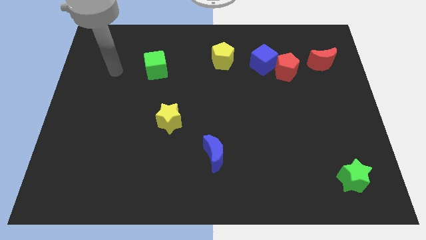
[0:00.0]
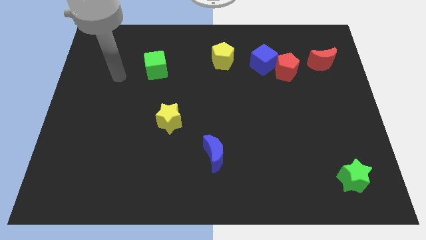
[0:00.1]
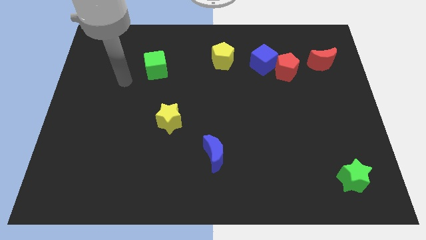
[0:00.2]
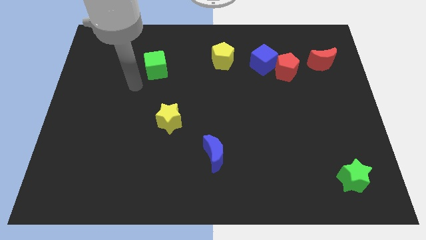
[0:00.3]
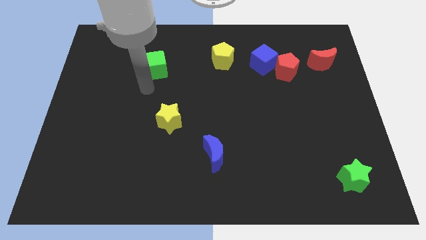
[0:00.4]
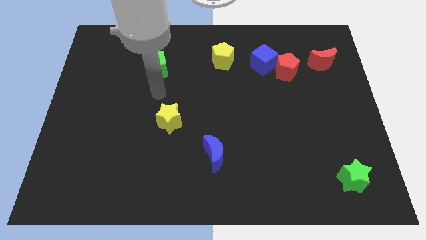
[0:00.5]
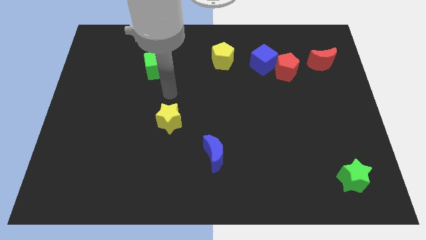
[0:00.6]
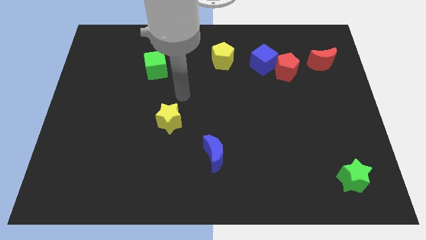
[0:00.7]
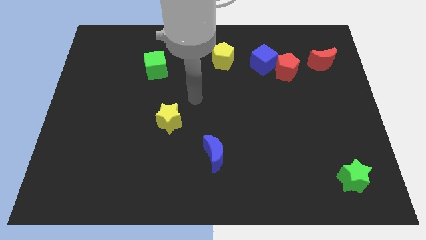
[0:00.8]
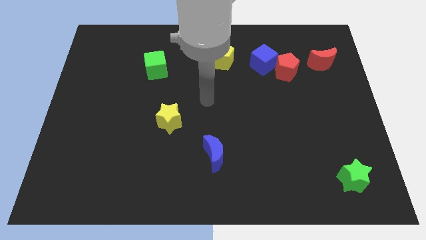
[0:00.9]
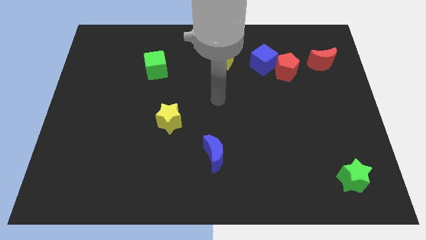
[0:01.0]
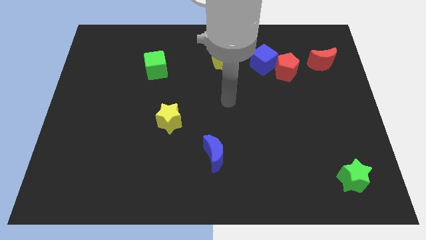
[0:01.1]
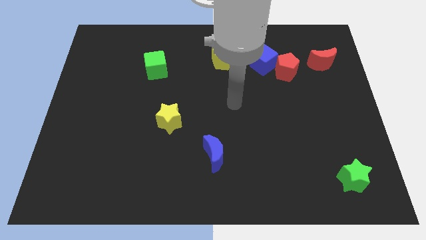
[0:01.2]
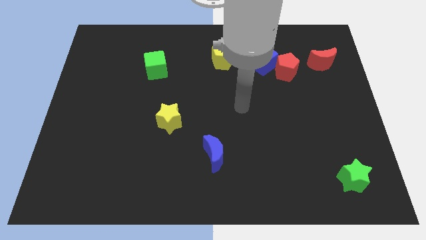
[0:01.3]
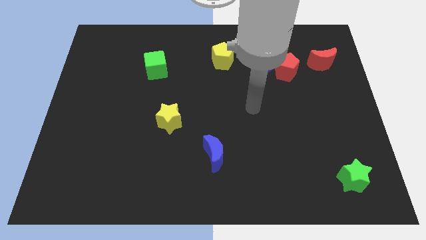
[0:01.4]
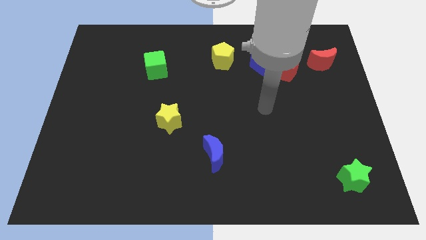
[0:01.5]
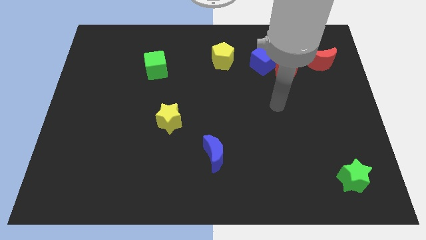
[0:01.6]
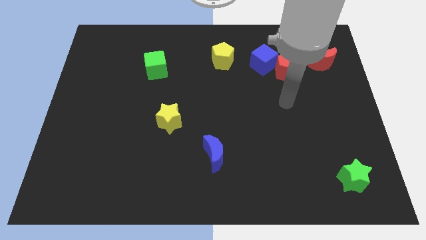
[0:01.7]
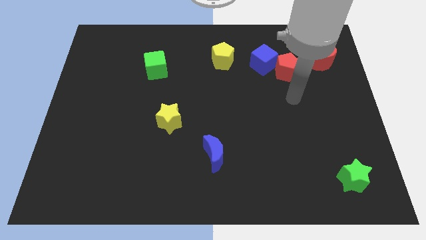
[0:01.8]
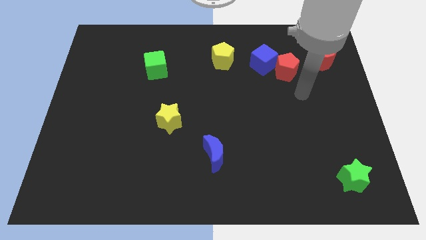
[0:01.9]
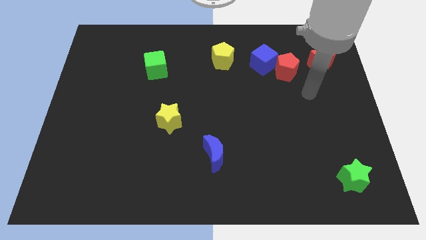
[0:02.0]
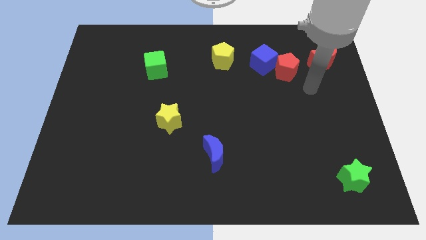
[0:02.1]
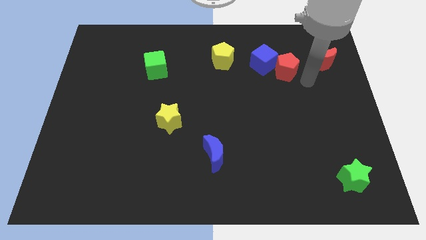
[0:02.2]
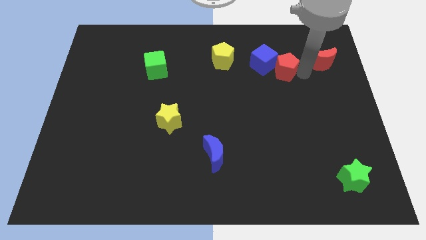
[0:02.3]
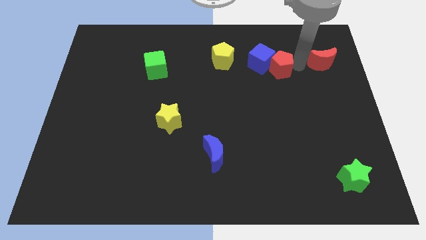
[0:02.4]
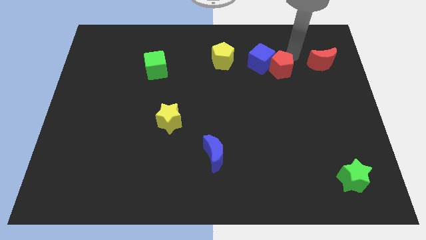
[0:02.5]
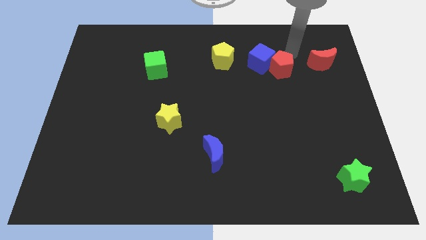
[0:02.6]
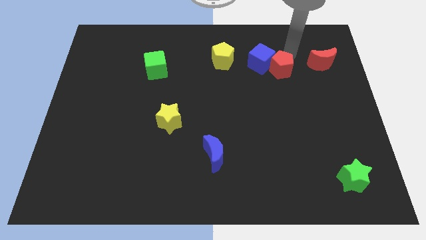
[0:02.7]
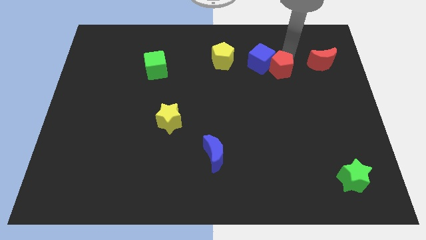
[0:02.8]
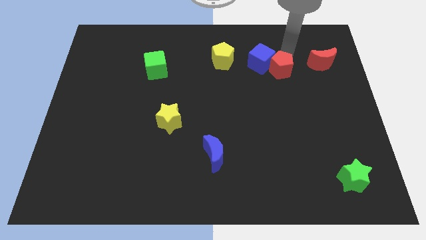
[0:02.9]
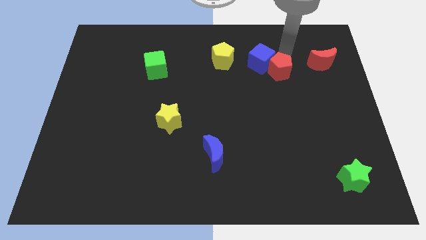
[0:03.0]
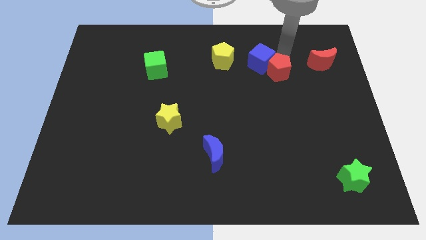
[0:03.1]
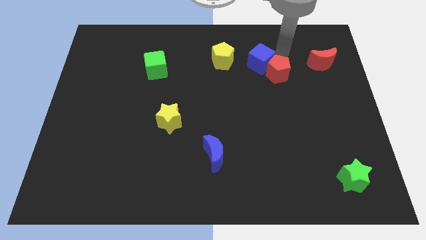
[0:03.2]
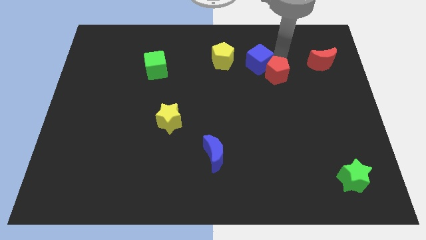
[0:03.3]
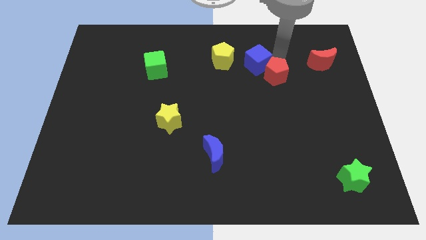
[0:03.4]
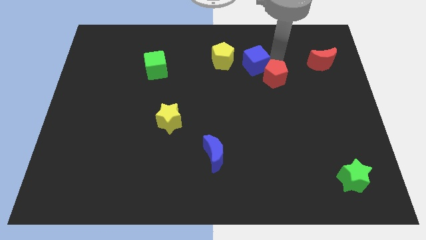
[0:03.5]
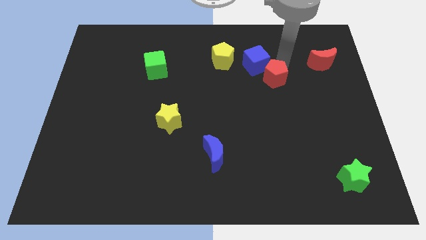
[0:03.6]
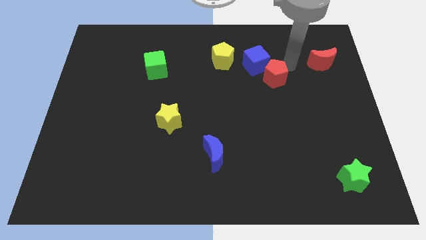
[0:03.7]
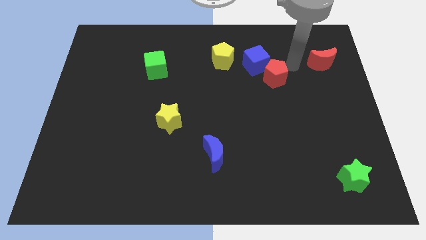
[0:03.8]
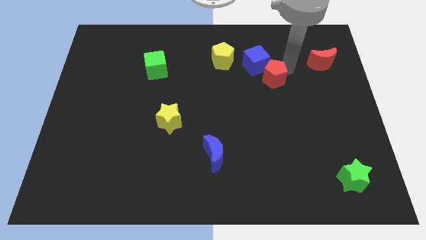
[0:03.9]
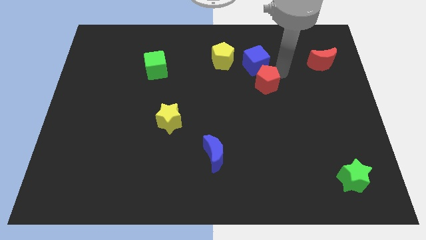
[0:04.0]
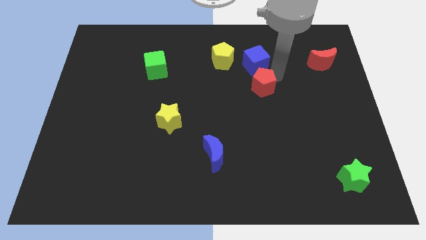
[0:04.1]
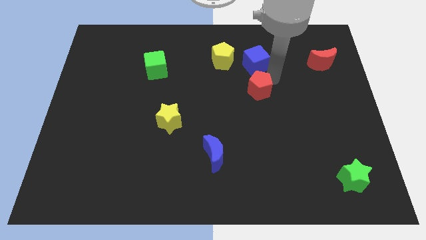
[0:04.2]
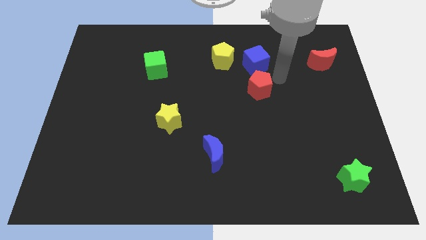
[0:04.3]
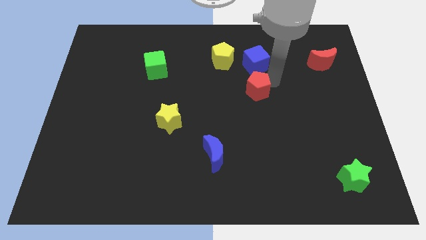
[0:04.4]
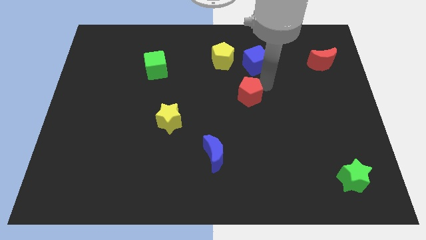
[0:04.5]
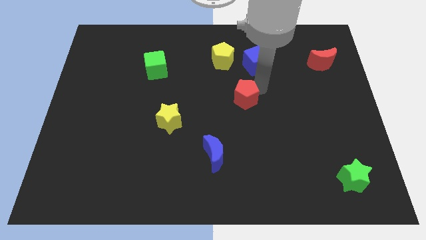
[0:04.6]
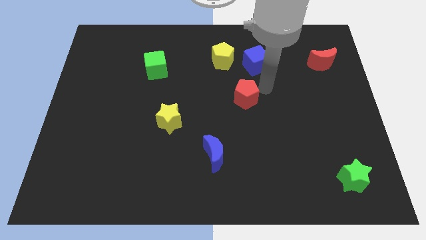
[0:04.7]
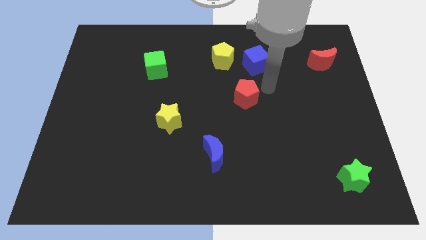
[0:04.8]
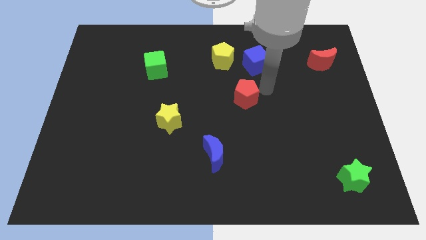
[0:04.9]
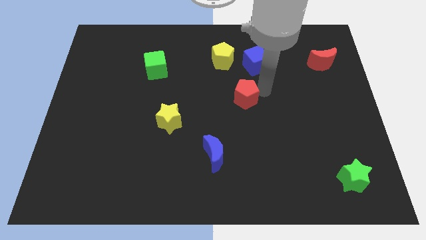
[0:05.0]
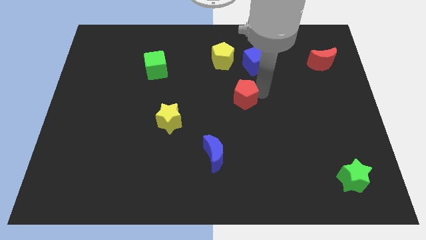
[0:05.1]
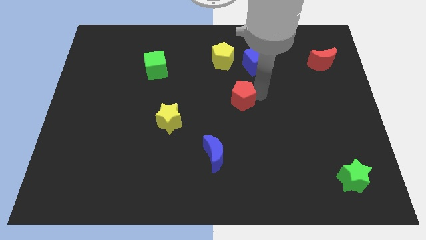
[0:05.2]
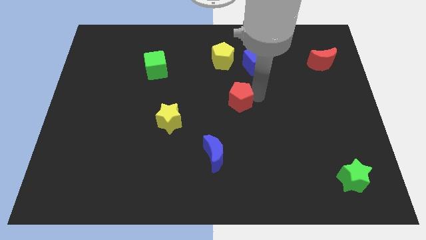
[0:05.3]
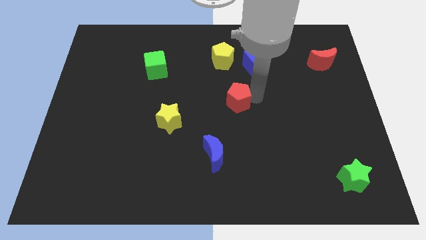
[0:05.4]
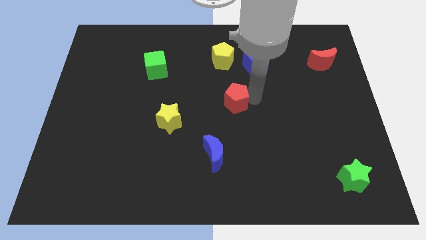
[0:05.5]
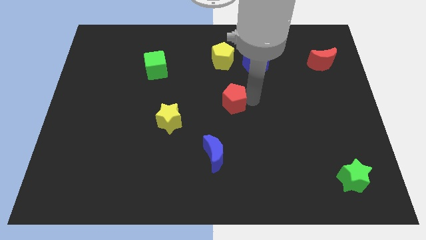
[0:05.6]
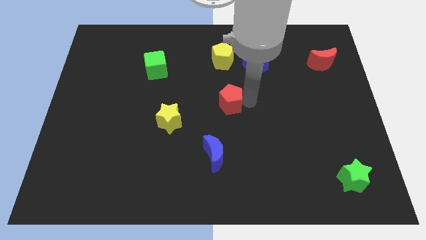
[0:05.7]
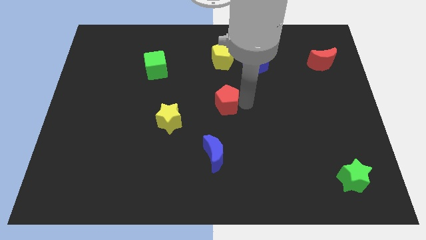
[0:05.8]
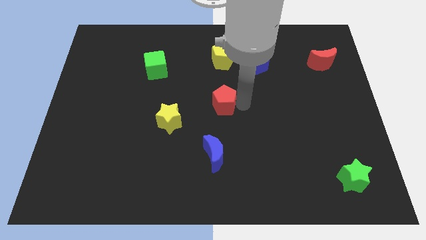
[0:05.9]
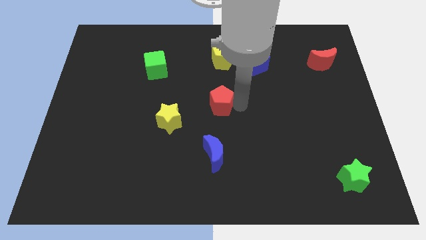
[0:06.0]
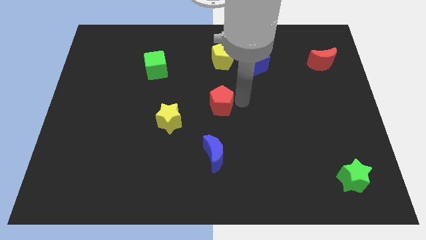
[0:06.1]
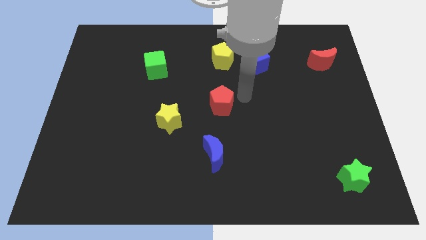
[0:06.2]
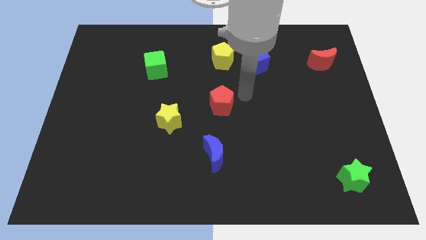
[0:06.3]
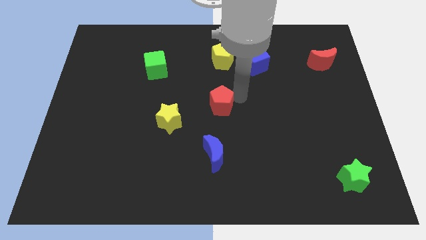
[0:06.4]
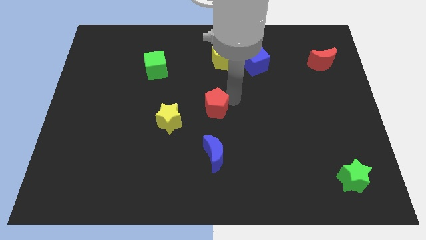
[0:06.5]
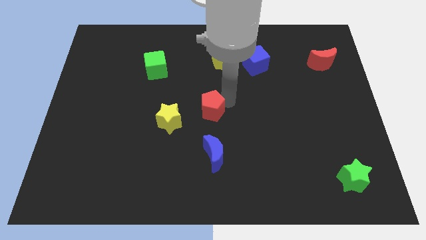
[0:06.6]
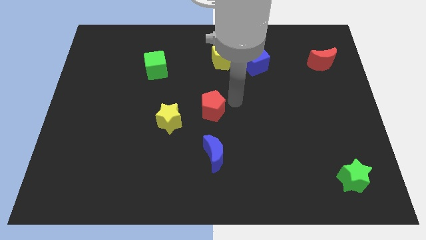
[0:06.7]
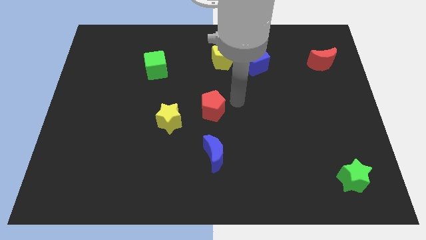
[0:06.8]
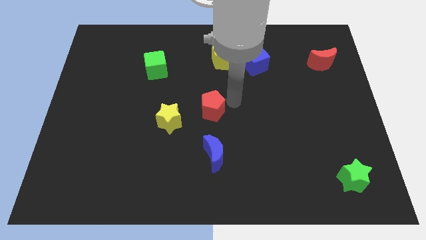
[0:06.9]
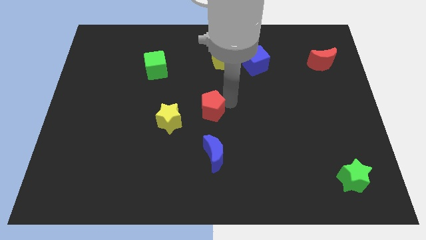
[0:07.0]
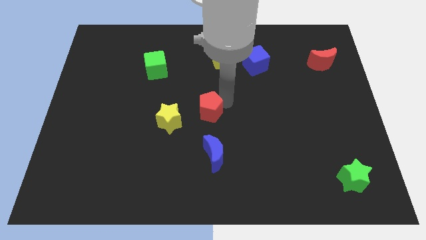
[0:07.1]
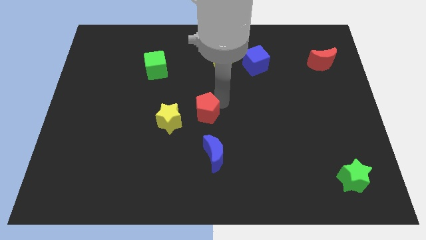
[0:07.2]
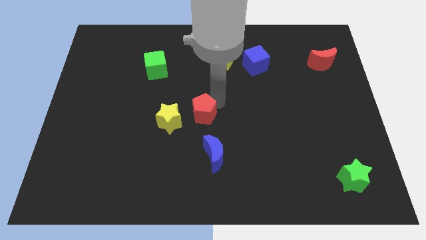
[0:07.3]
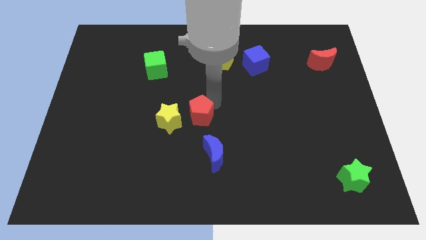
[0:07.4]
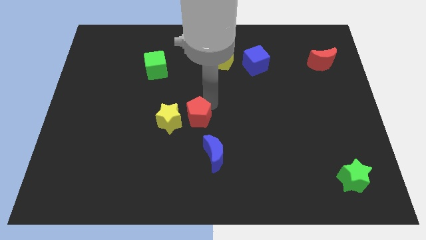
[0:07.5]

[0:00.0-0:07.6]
move the red pentagon close to the yellow star

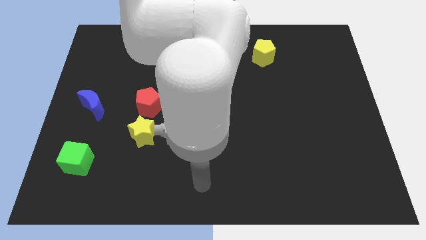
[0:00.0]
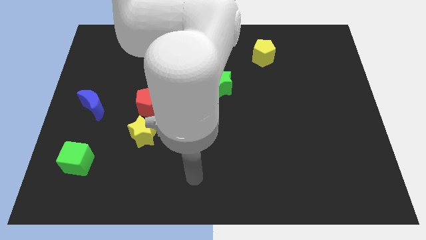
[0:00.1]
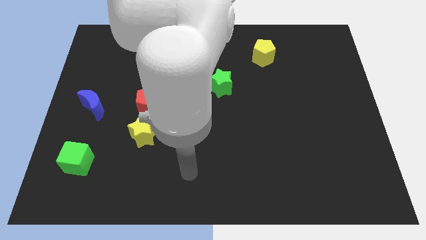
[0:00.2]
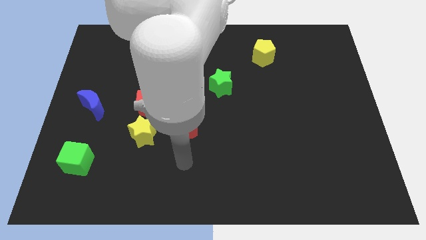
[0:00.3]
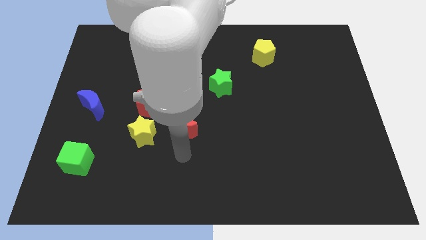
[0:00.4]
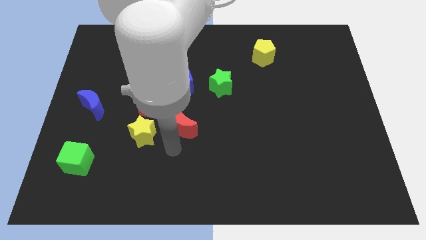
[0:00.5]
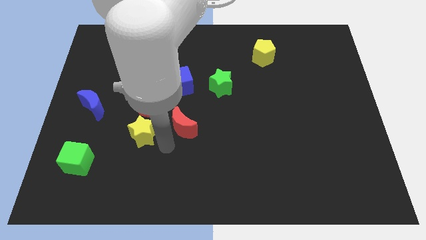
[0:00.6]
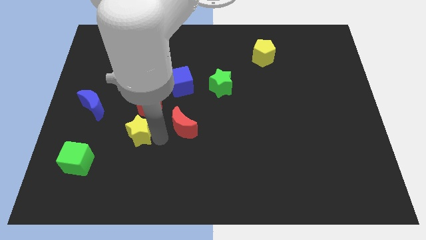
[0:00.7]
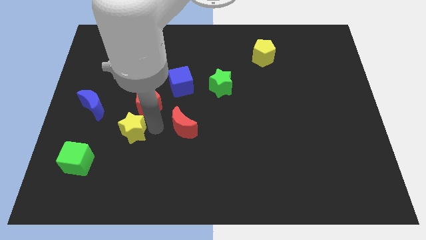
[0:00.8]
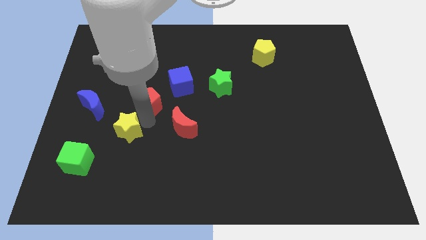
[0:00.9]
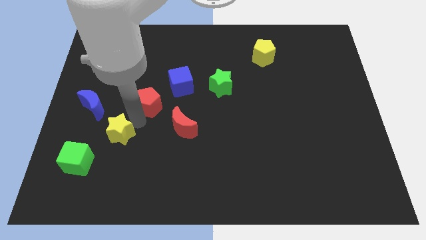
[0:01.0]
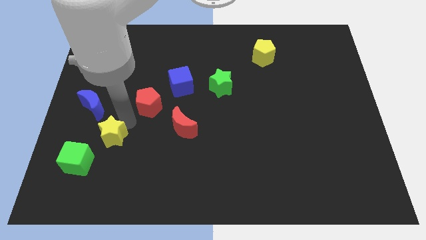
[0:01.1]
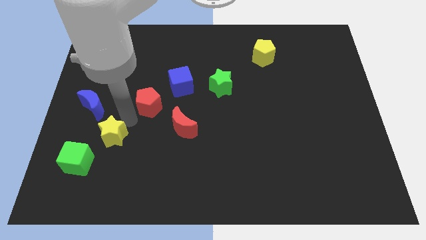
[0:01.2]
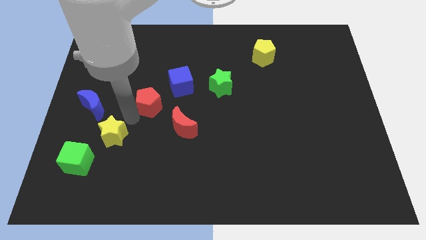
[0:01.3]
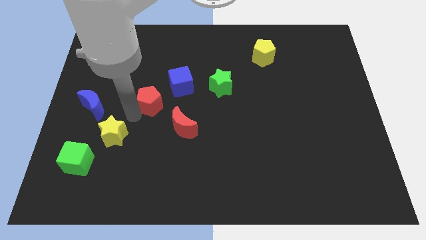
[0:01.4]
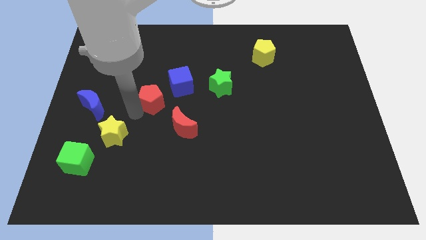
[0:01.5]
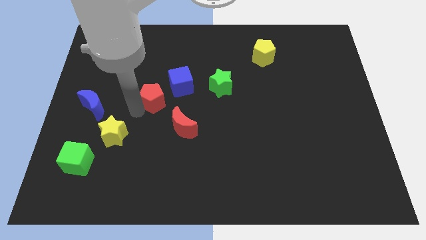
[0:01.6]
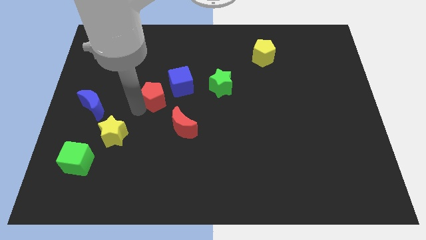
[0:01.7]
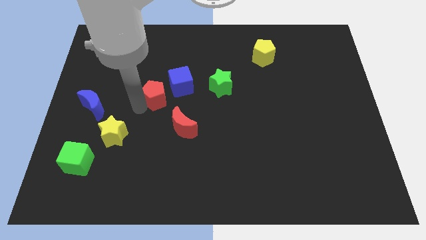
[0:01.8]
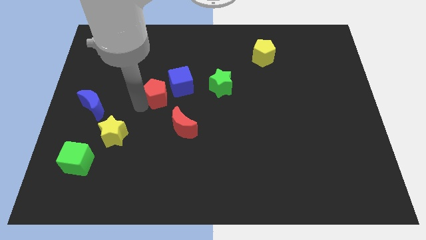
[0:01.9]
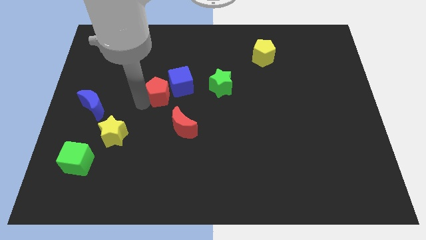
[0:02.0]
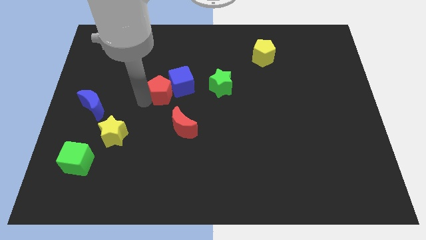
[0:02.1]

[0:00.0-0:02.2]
move the red pentagon next to the blue cube
